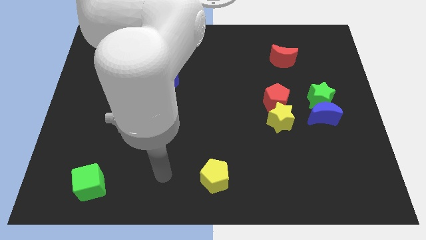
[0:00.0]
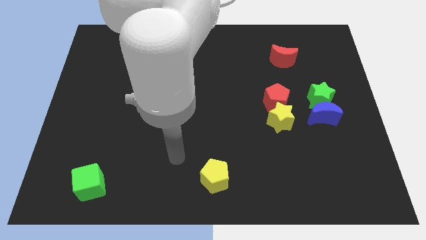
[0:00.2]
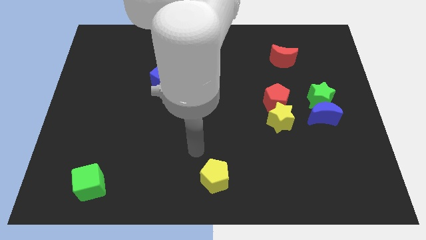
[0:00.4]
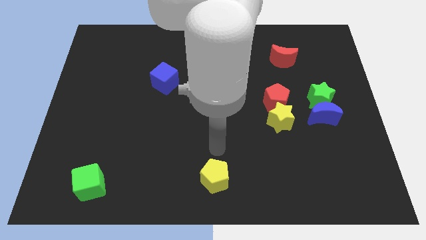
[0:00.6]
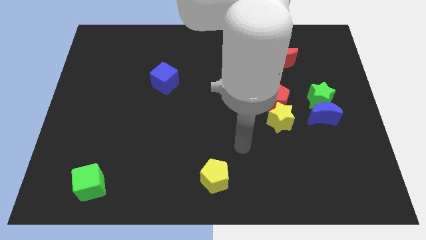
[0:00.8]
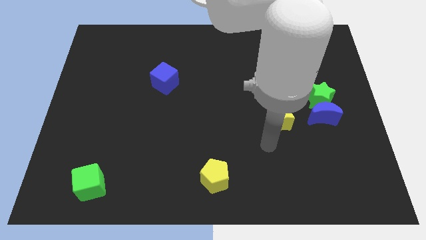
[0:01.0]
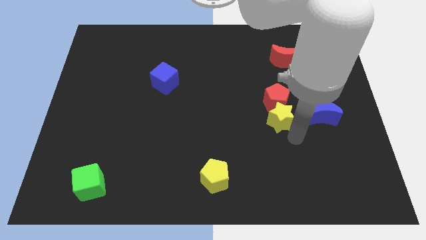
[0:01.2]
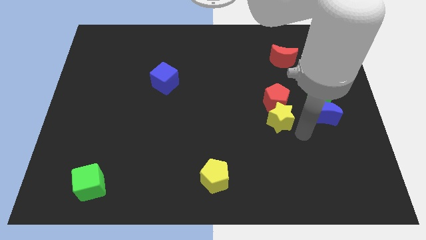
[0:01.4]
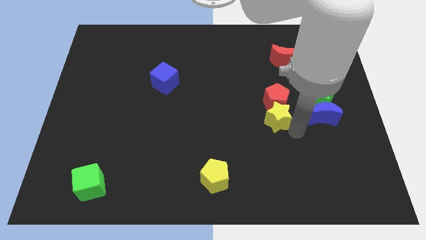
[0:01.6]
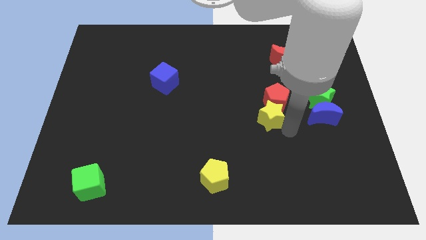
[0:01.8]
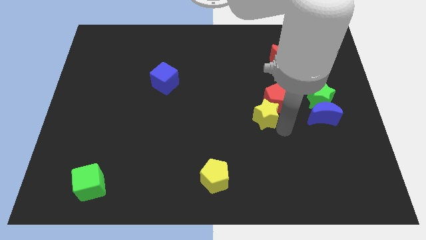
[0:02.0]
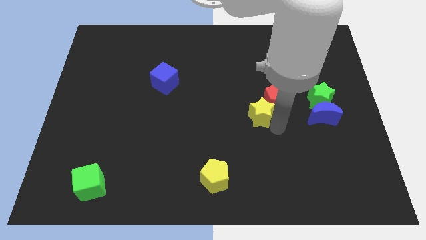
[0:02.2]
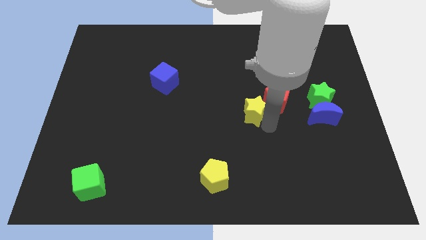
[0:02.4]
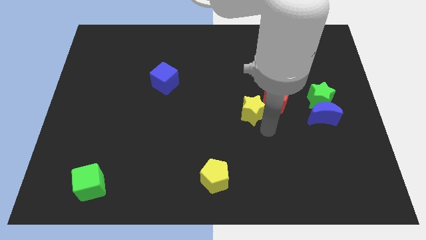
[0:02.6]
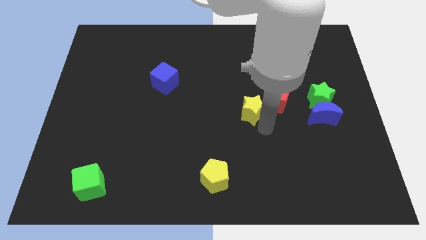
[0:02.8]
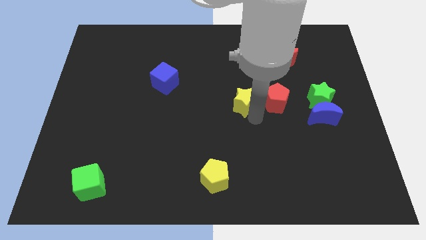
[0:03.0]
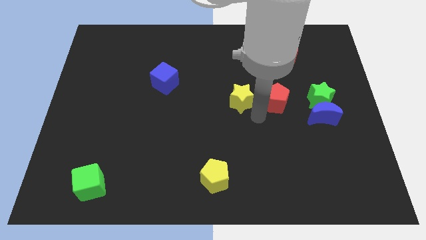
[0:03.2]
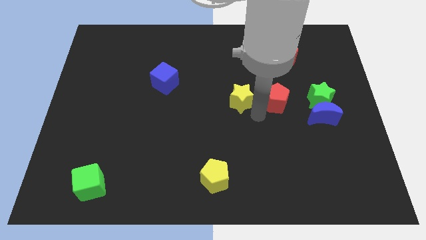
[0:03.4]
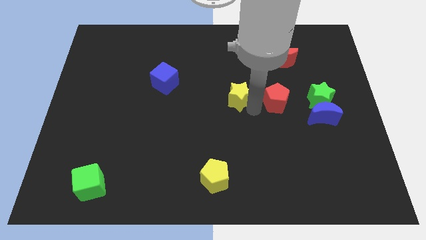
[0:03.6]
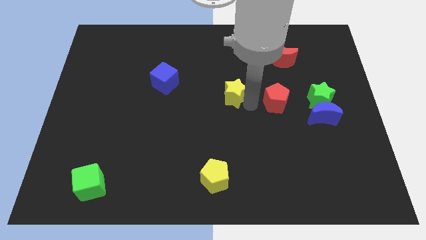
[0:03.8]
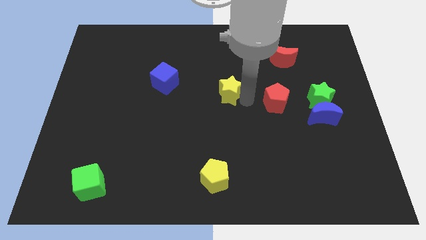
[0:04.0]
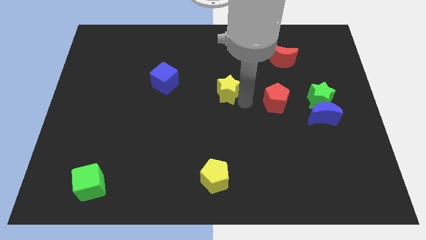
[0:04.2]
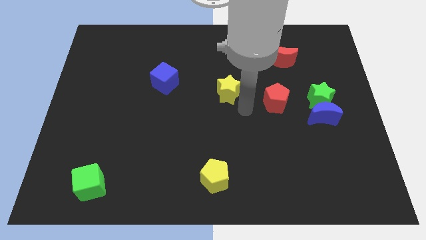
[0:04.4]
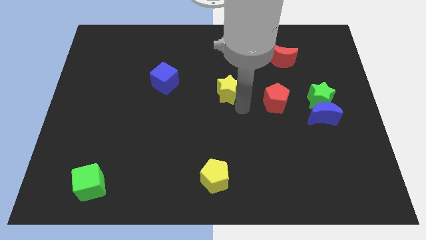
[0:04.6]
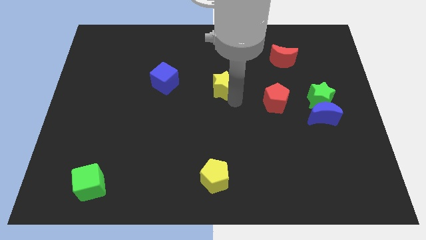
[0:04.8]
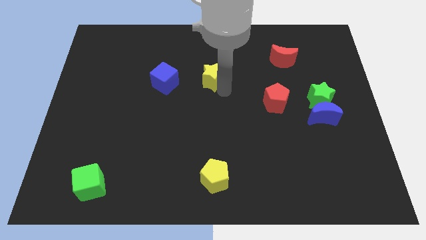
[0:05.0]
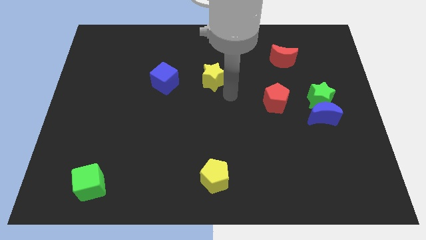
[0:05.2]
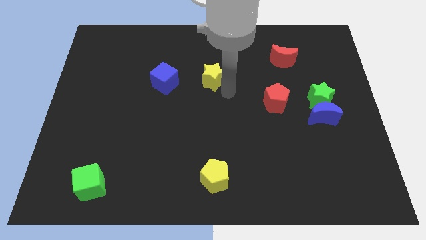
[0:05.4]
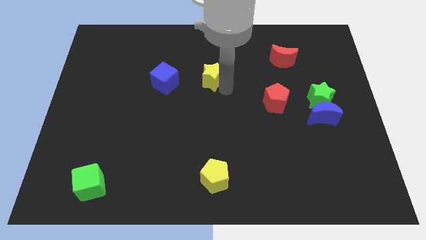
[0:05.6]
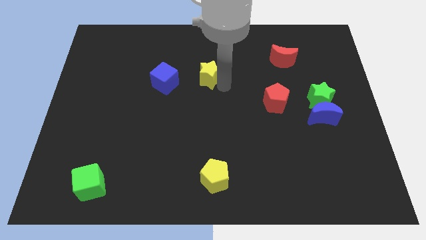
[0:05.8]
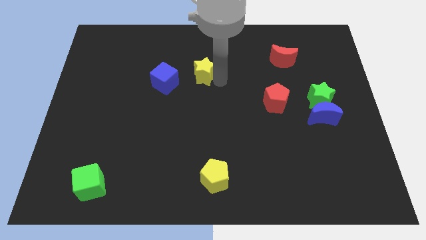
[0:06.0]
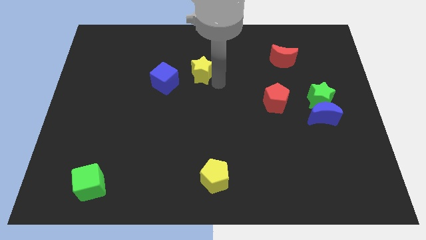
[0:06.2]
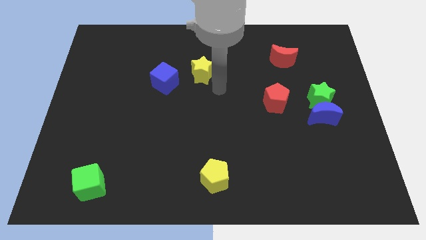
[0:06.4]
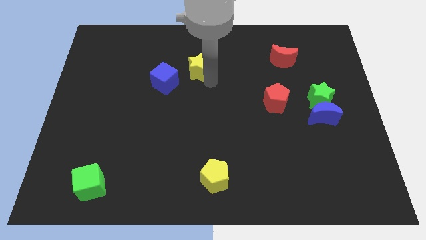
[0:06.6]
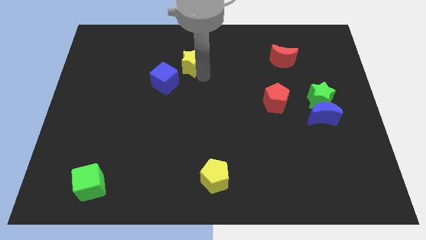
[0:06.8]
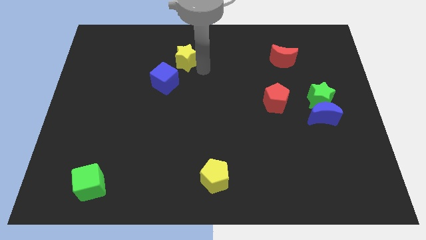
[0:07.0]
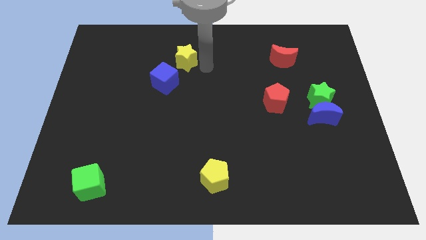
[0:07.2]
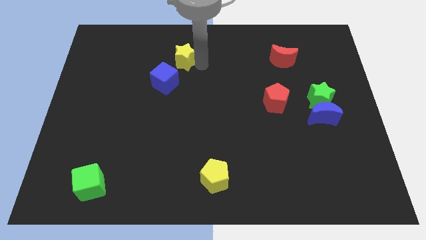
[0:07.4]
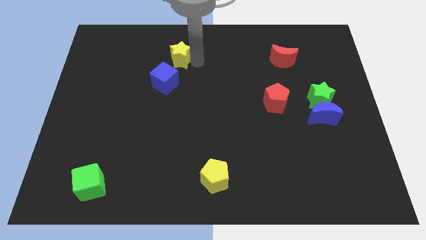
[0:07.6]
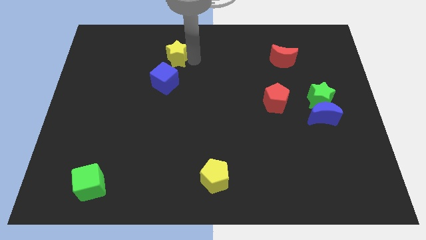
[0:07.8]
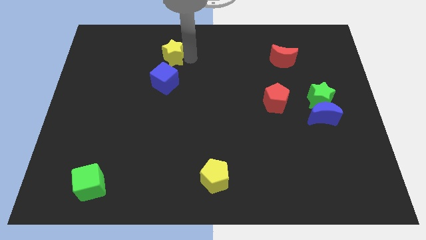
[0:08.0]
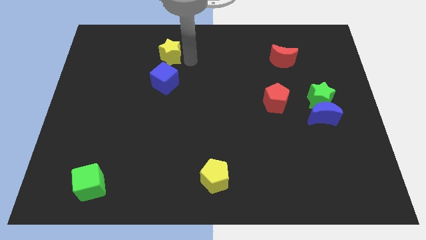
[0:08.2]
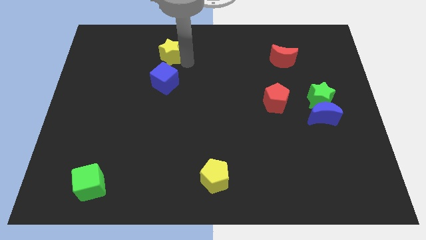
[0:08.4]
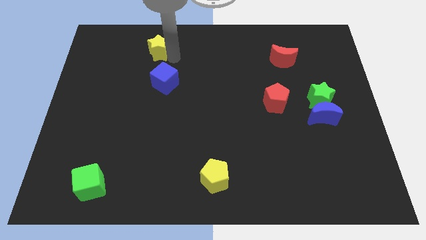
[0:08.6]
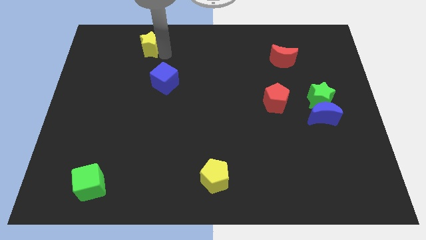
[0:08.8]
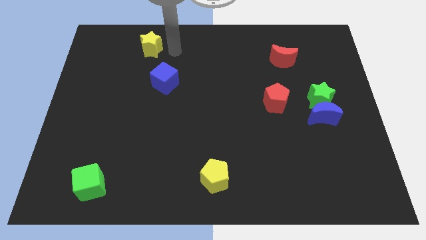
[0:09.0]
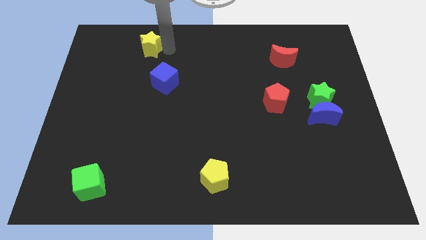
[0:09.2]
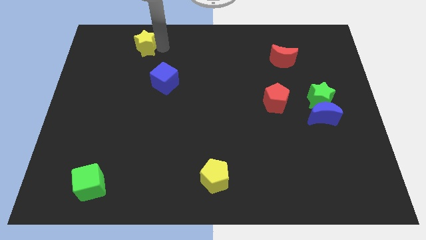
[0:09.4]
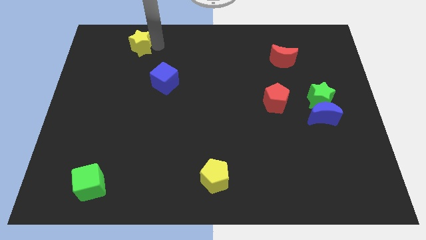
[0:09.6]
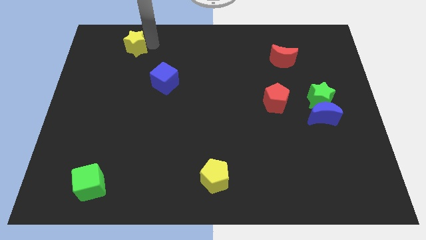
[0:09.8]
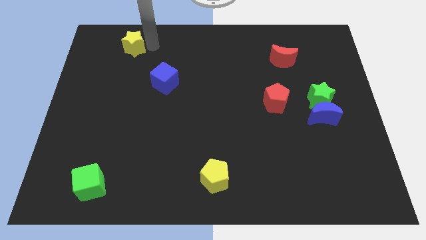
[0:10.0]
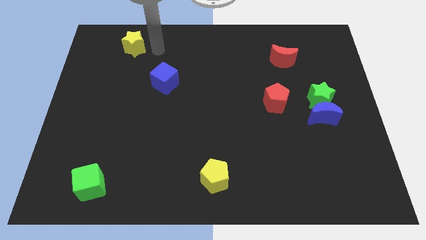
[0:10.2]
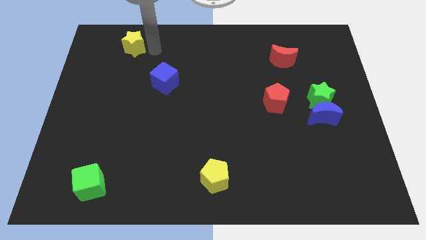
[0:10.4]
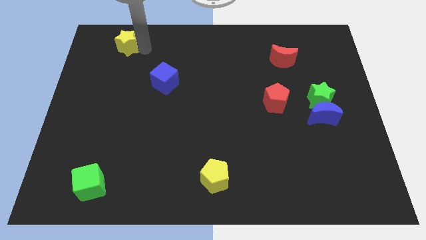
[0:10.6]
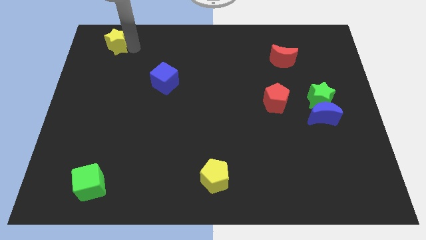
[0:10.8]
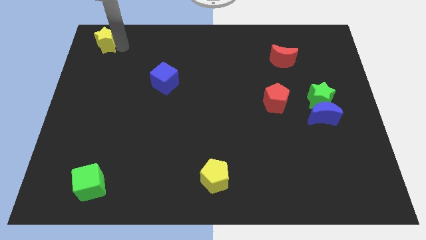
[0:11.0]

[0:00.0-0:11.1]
slide the yellow star to the top left

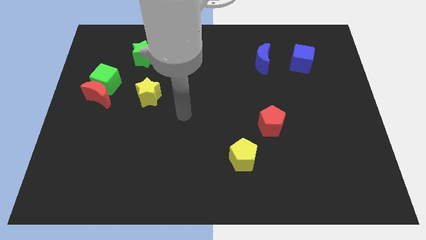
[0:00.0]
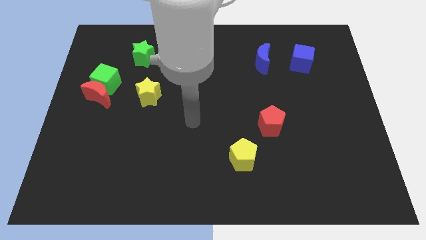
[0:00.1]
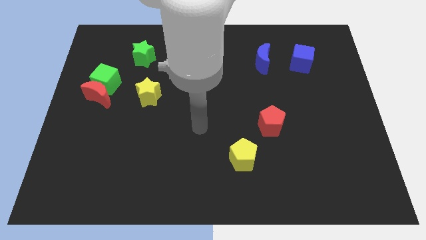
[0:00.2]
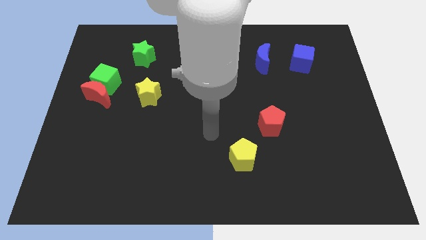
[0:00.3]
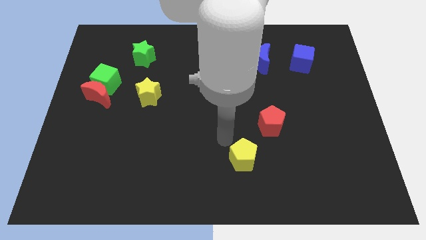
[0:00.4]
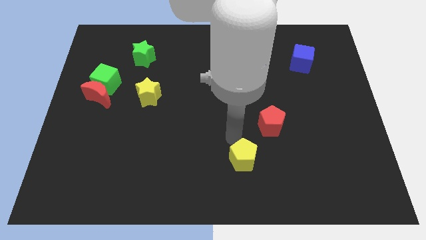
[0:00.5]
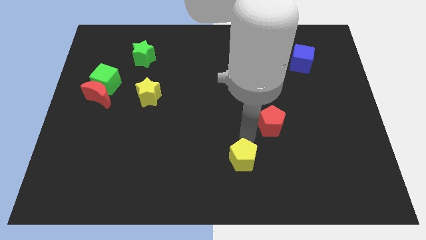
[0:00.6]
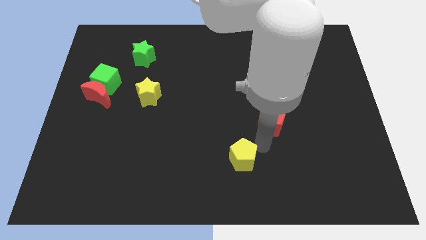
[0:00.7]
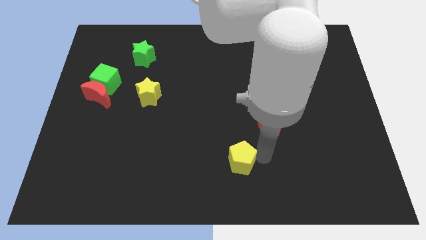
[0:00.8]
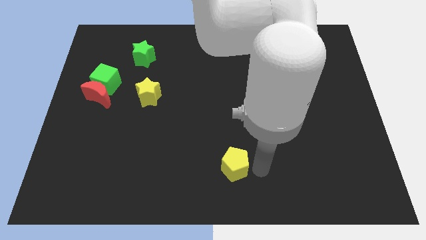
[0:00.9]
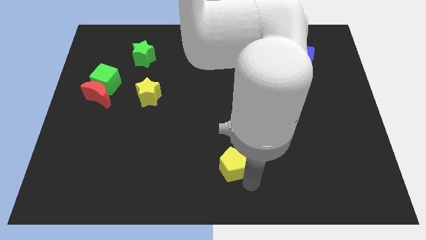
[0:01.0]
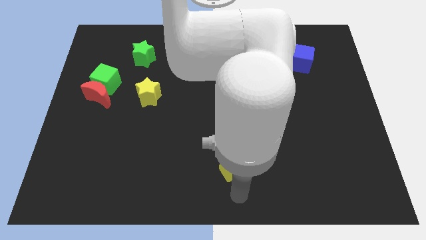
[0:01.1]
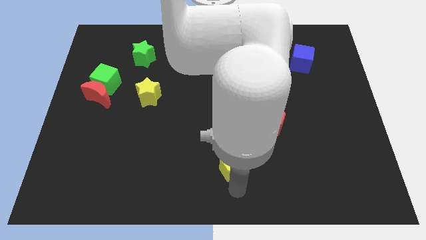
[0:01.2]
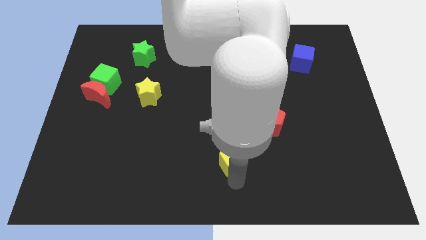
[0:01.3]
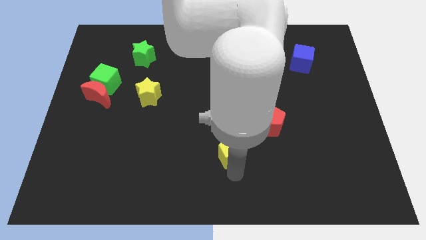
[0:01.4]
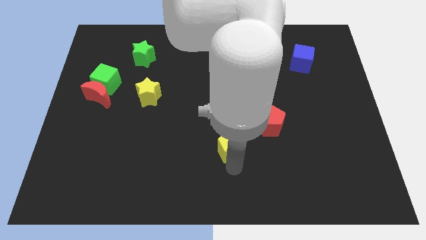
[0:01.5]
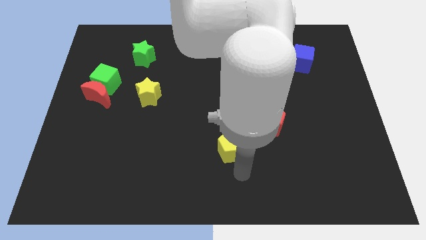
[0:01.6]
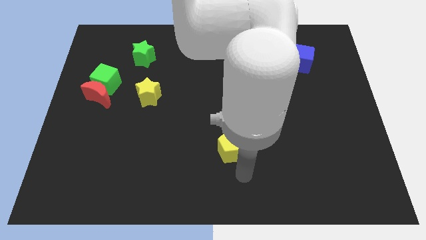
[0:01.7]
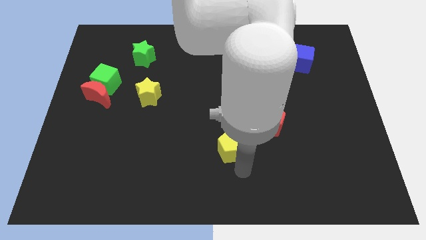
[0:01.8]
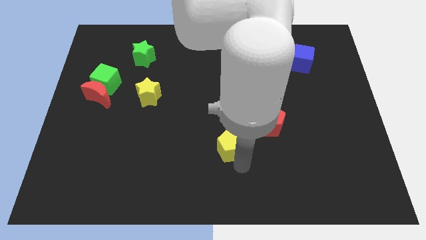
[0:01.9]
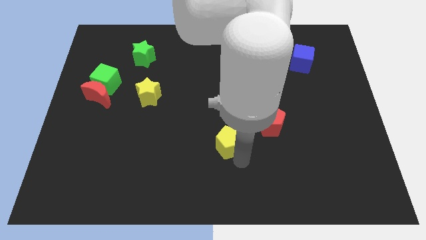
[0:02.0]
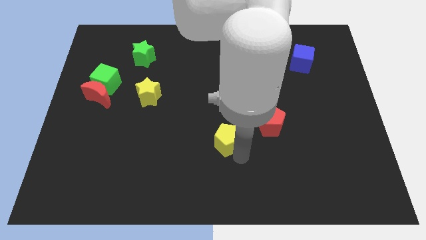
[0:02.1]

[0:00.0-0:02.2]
put the yellow pentagon to the middle
